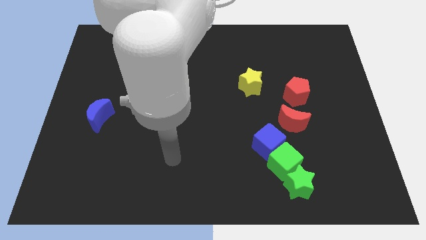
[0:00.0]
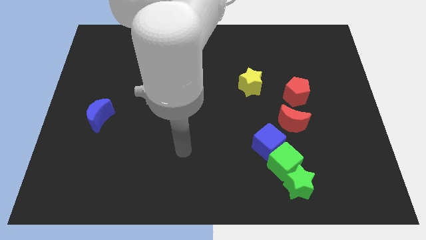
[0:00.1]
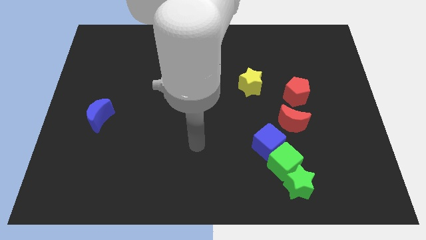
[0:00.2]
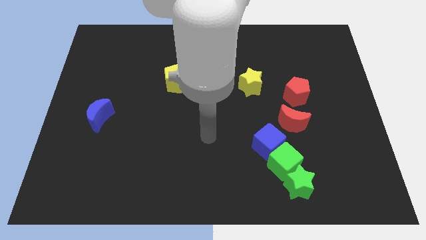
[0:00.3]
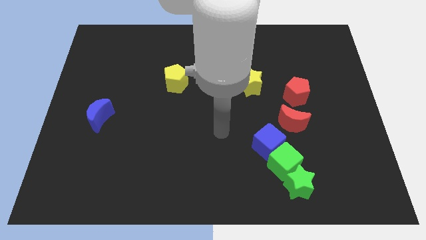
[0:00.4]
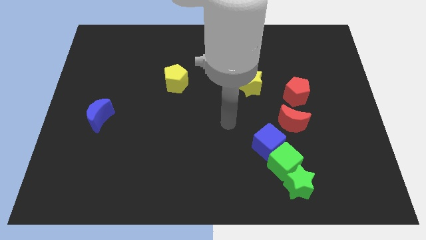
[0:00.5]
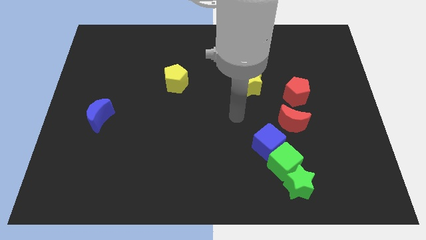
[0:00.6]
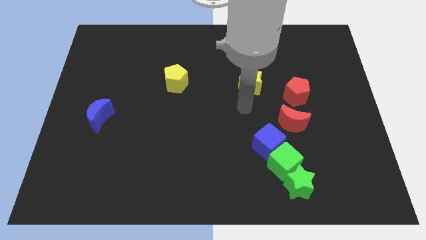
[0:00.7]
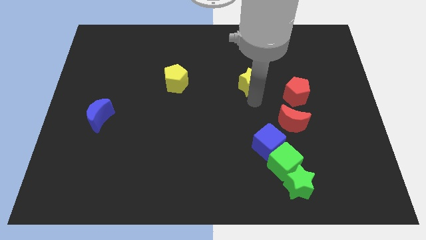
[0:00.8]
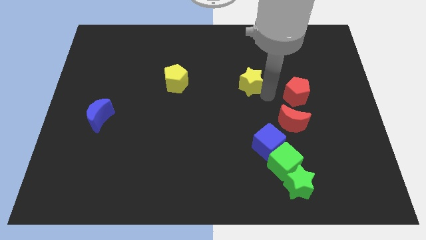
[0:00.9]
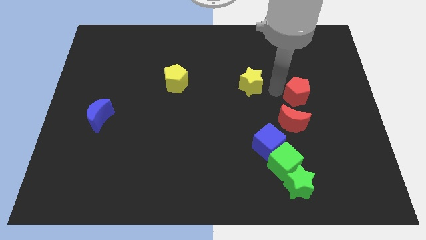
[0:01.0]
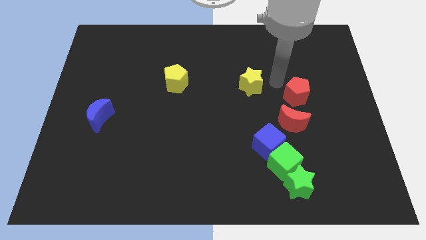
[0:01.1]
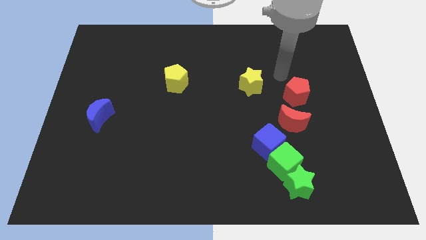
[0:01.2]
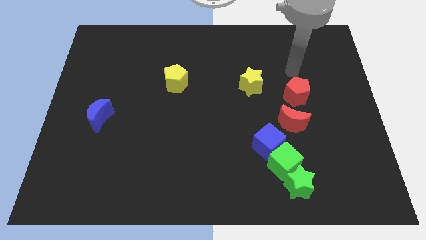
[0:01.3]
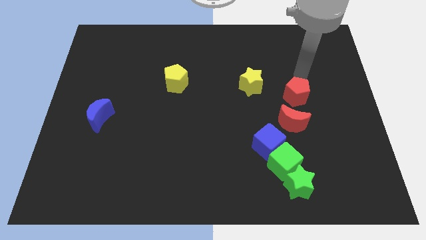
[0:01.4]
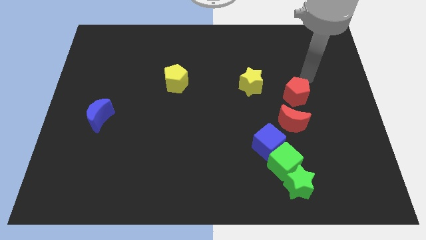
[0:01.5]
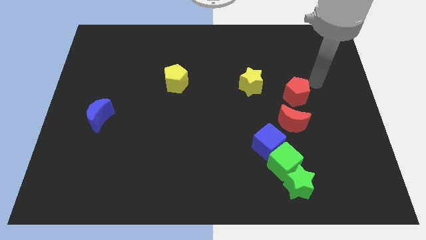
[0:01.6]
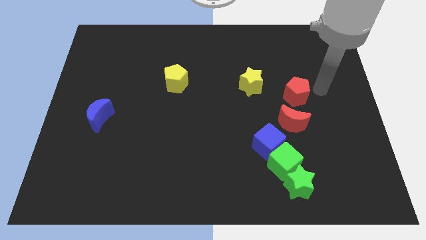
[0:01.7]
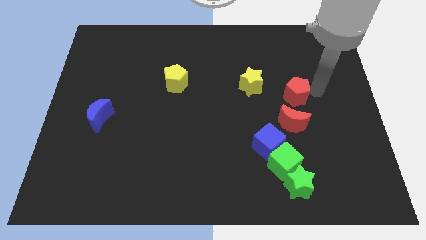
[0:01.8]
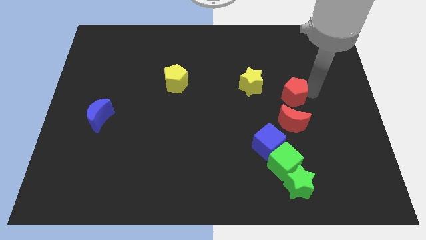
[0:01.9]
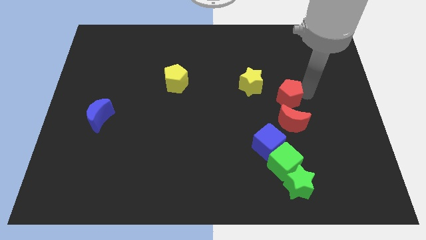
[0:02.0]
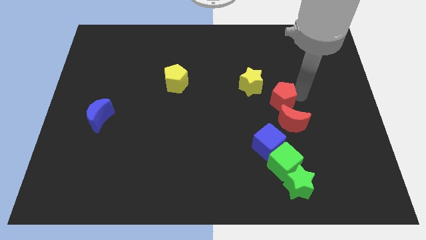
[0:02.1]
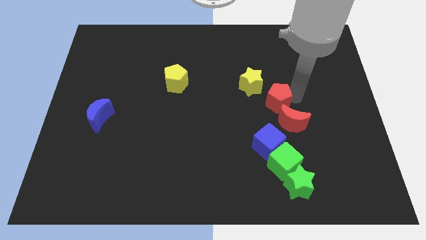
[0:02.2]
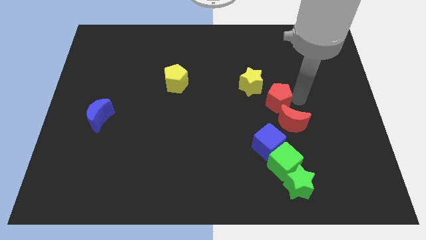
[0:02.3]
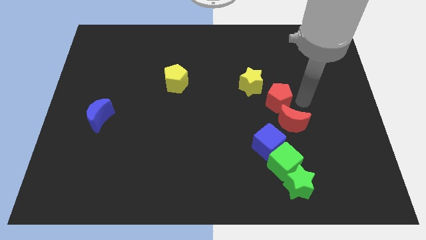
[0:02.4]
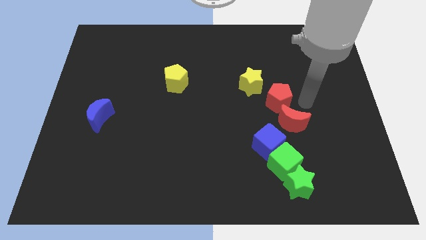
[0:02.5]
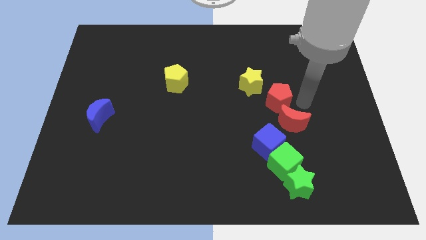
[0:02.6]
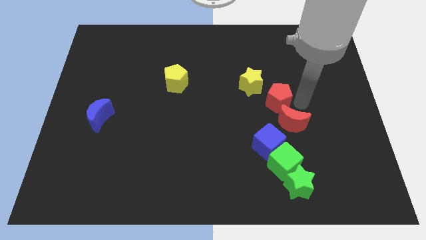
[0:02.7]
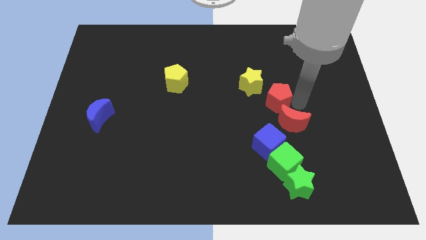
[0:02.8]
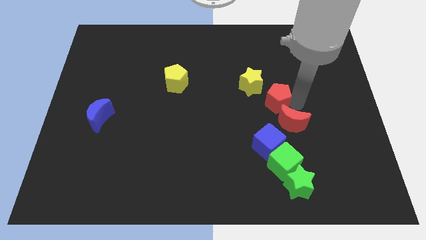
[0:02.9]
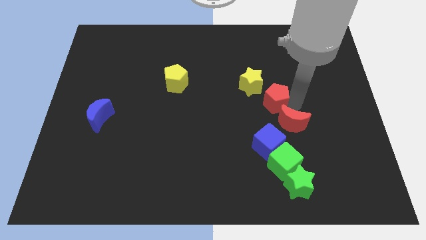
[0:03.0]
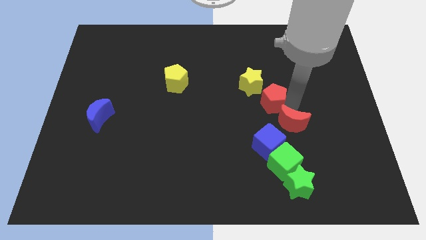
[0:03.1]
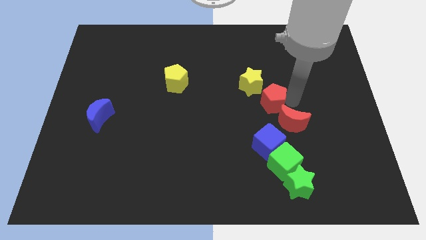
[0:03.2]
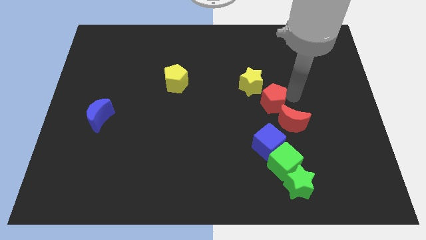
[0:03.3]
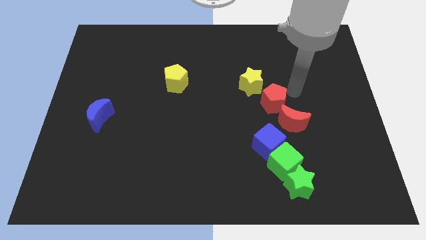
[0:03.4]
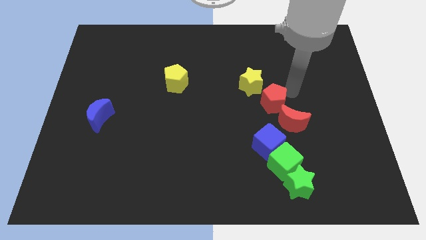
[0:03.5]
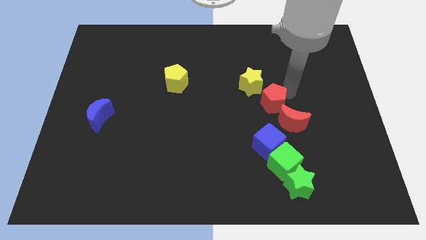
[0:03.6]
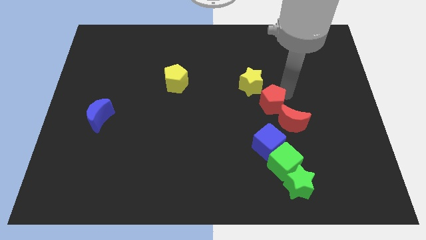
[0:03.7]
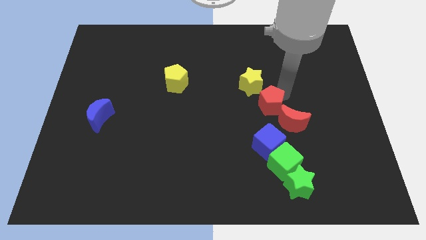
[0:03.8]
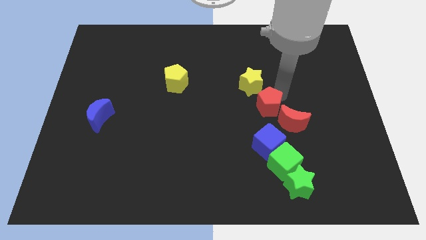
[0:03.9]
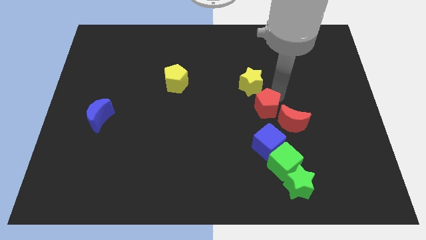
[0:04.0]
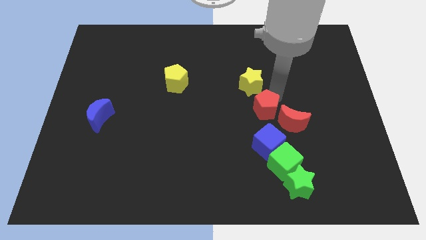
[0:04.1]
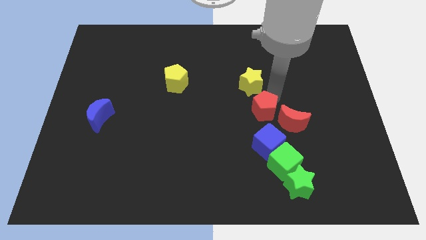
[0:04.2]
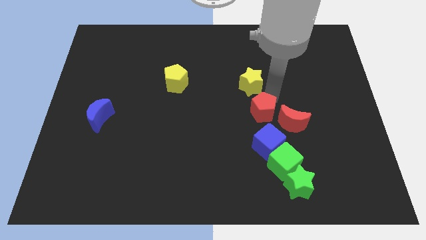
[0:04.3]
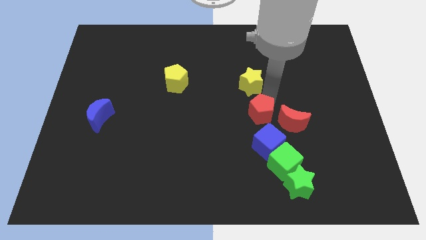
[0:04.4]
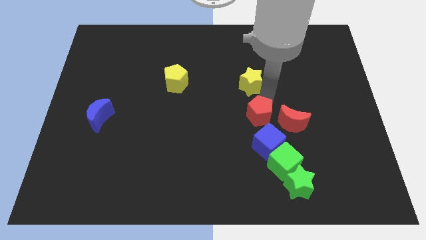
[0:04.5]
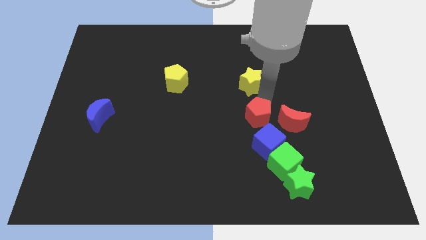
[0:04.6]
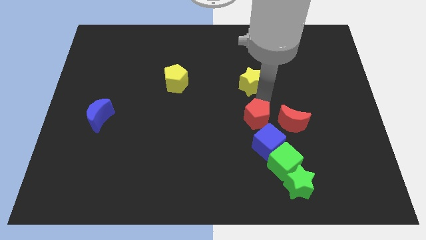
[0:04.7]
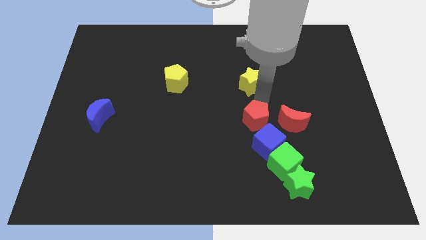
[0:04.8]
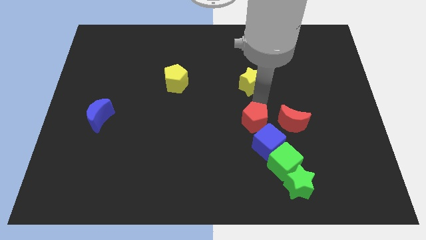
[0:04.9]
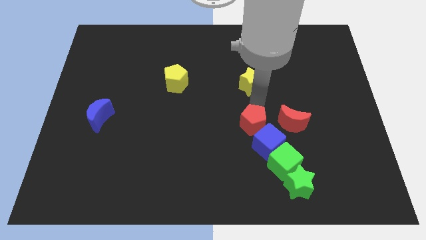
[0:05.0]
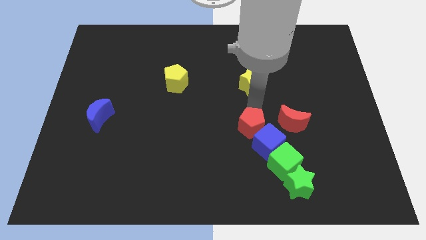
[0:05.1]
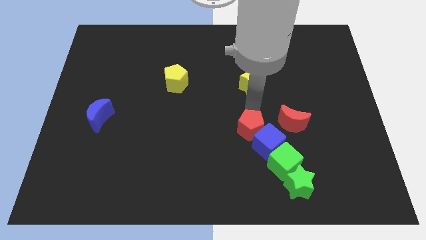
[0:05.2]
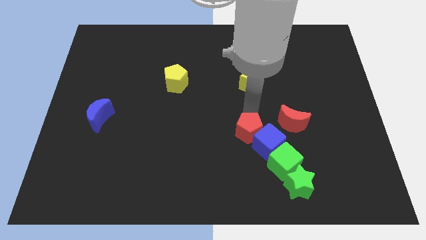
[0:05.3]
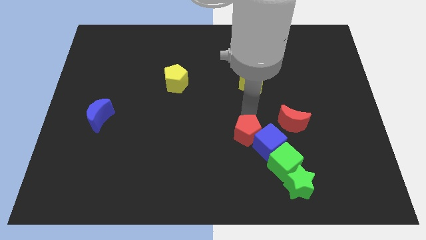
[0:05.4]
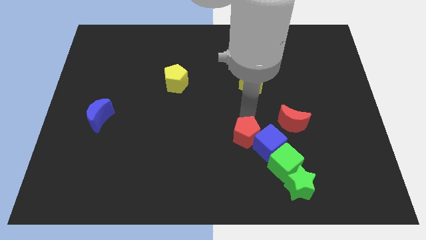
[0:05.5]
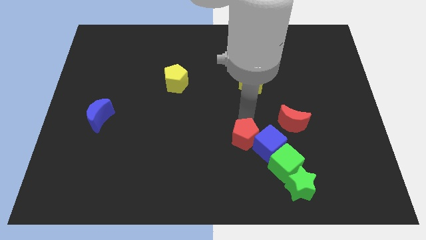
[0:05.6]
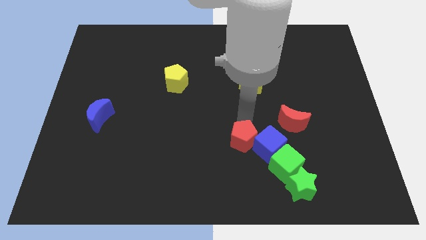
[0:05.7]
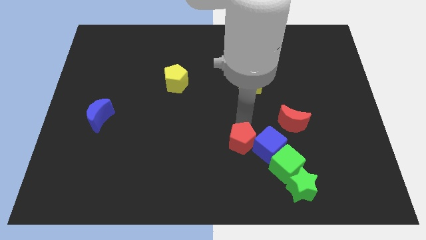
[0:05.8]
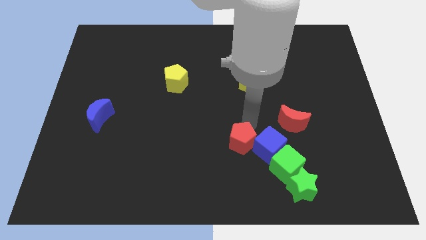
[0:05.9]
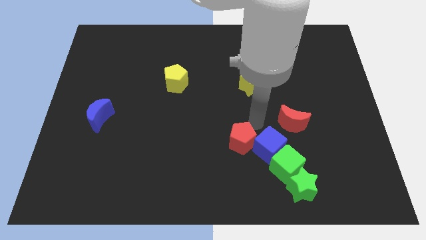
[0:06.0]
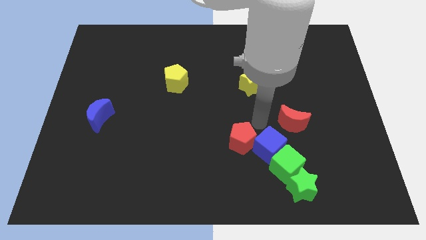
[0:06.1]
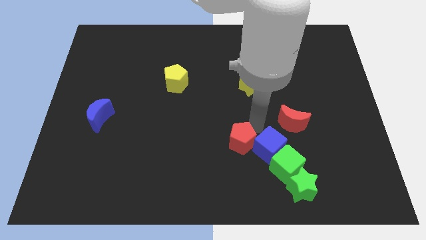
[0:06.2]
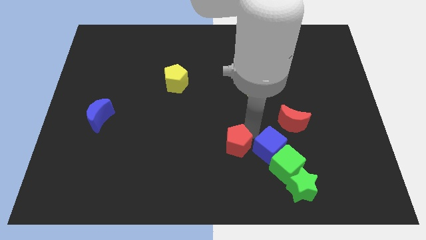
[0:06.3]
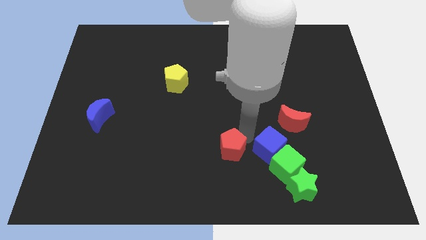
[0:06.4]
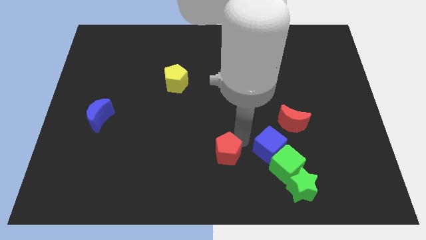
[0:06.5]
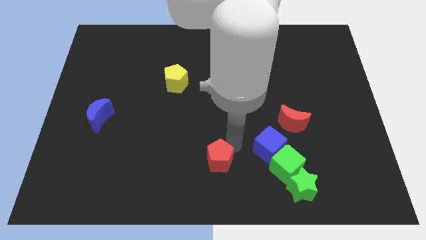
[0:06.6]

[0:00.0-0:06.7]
slide the red pentagon to the bottom side
